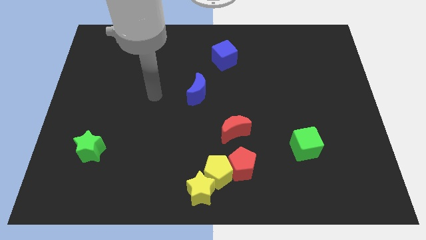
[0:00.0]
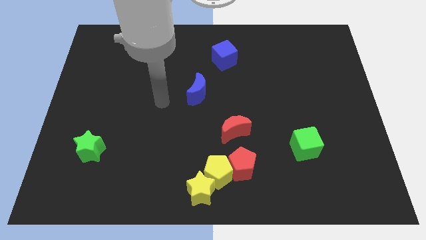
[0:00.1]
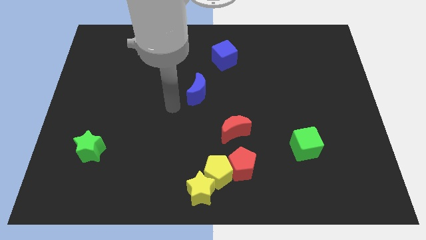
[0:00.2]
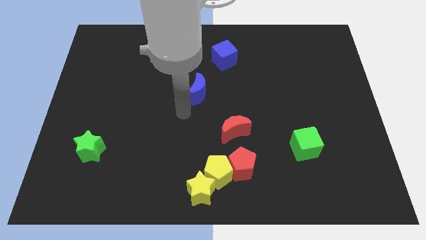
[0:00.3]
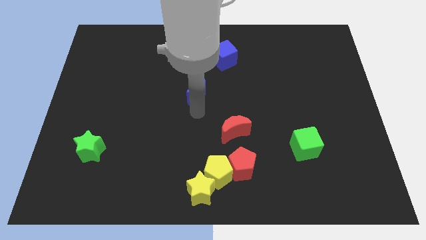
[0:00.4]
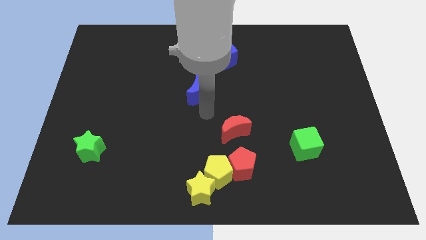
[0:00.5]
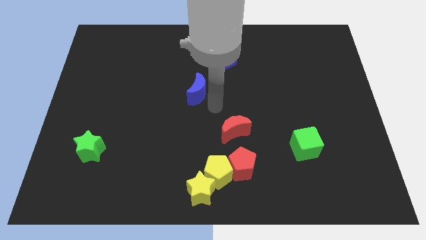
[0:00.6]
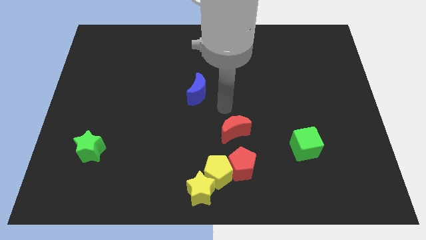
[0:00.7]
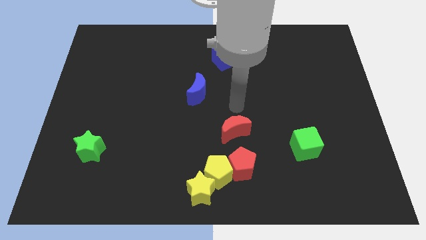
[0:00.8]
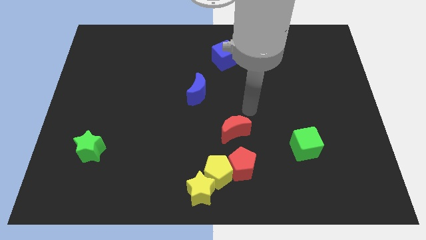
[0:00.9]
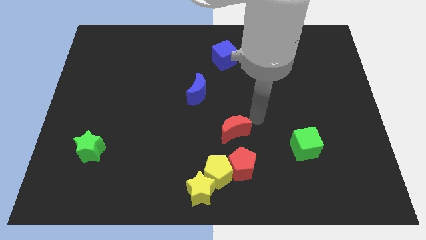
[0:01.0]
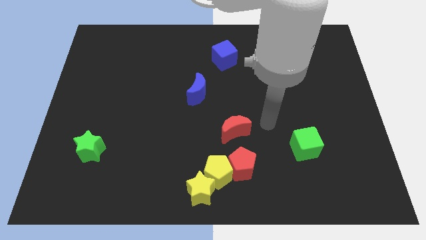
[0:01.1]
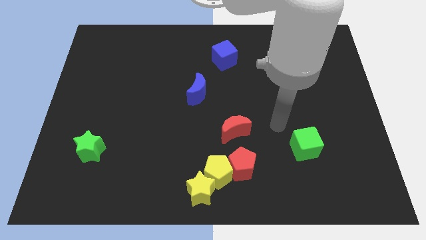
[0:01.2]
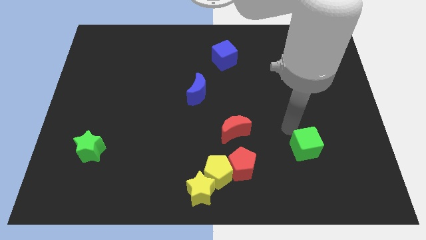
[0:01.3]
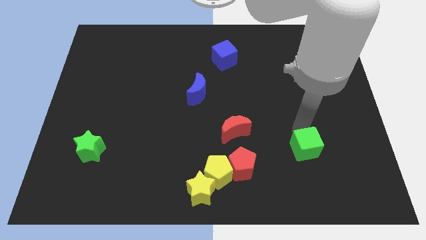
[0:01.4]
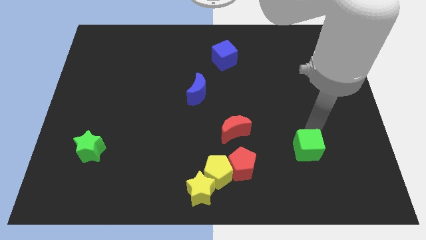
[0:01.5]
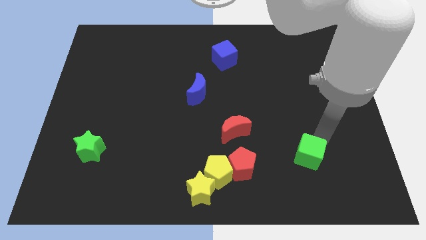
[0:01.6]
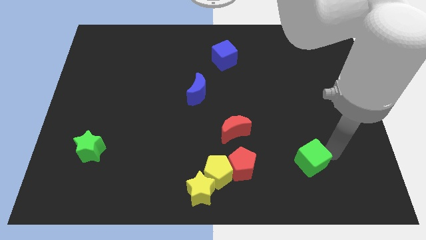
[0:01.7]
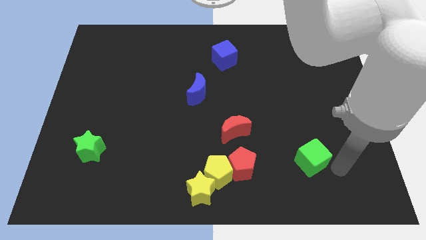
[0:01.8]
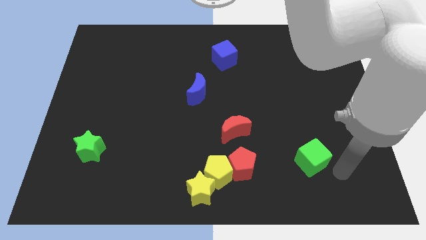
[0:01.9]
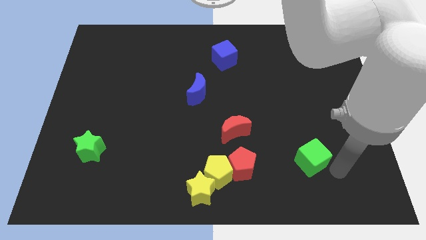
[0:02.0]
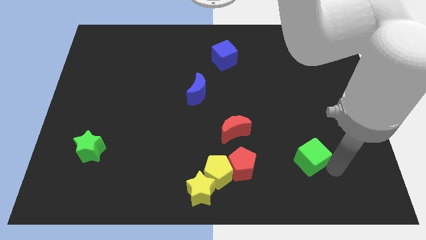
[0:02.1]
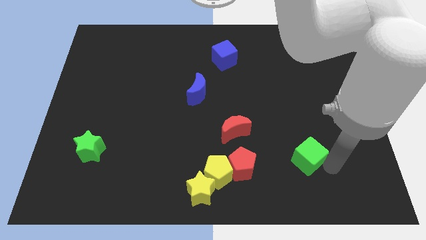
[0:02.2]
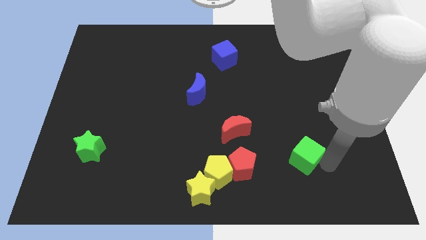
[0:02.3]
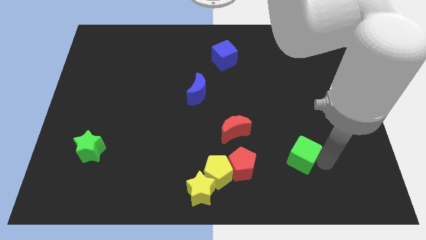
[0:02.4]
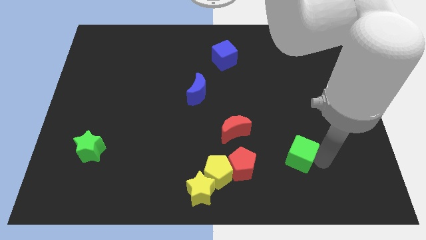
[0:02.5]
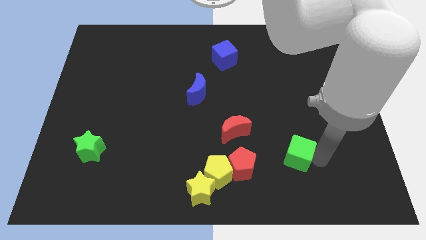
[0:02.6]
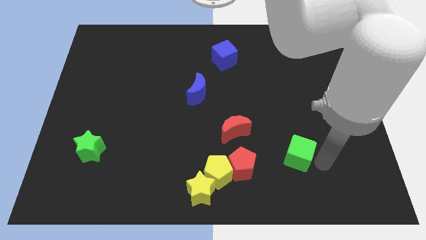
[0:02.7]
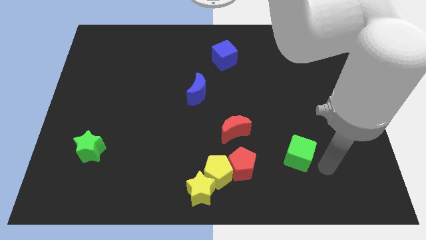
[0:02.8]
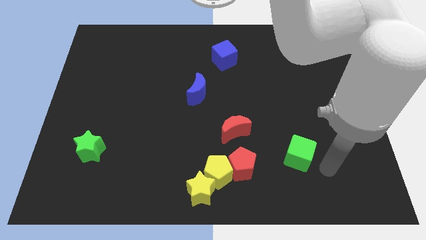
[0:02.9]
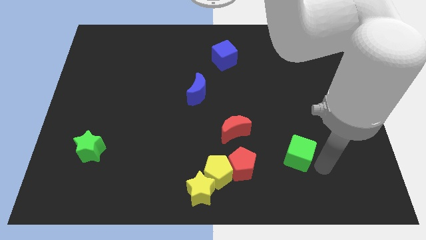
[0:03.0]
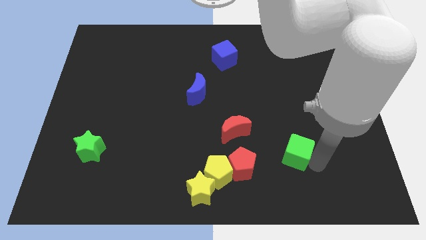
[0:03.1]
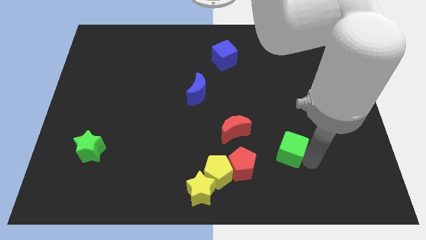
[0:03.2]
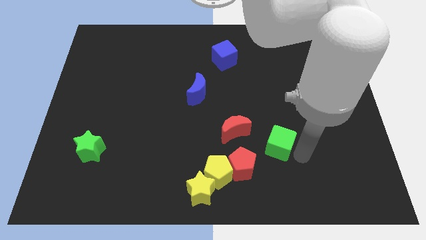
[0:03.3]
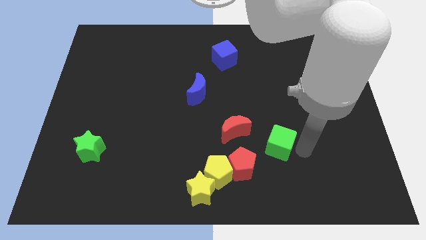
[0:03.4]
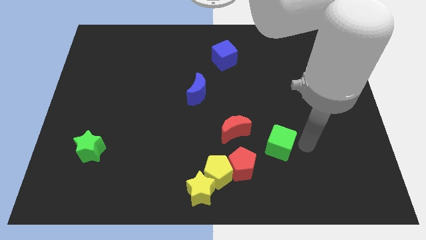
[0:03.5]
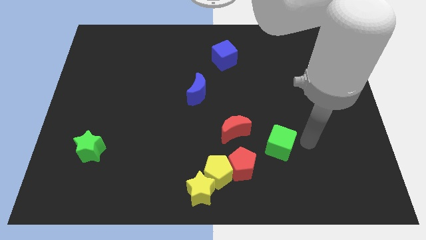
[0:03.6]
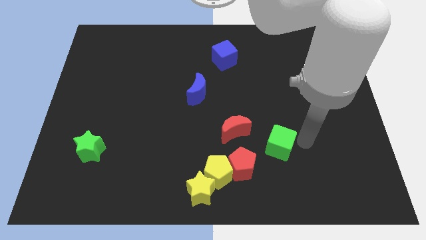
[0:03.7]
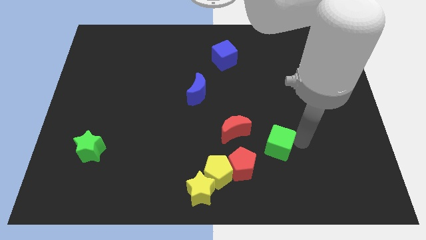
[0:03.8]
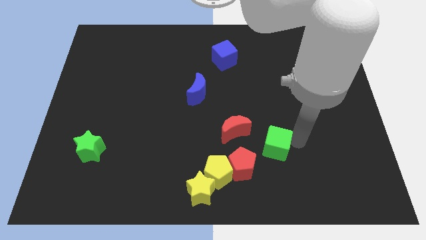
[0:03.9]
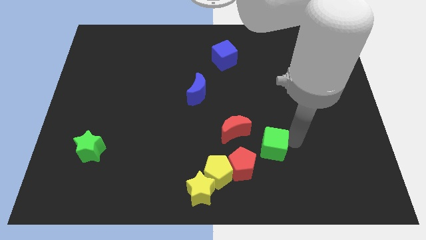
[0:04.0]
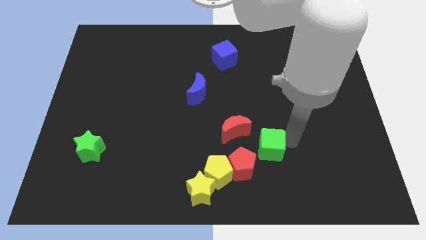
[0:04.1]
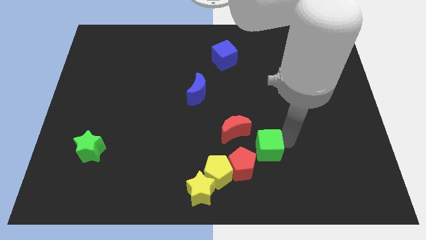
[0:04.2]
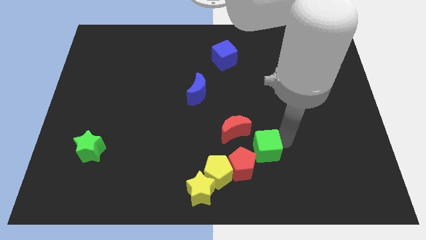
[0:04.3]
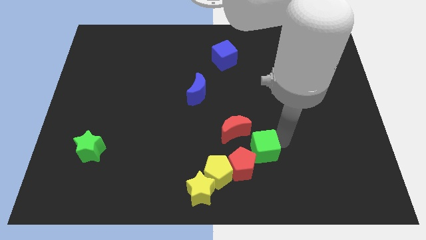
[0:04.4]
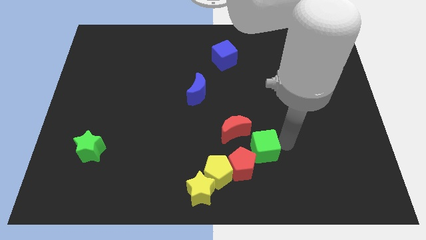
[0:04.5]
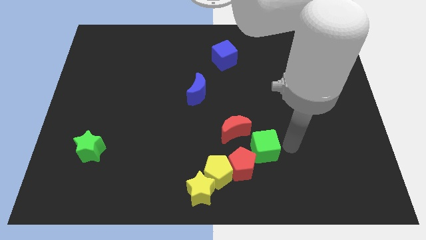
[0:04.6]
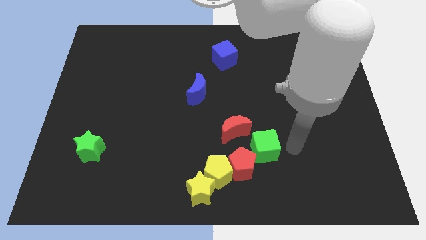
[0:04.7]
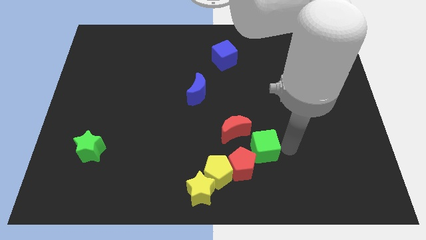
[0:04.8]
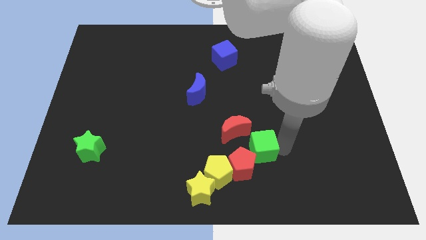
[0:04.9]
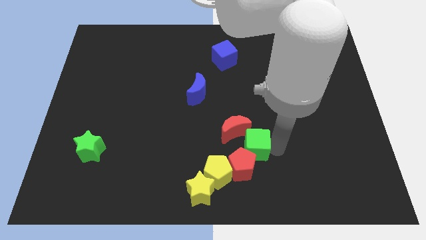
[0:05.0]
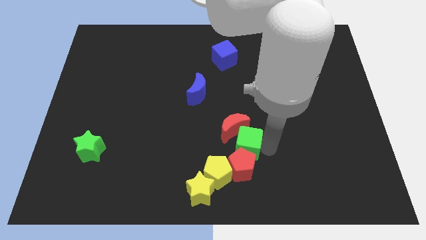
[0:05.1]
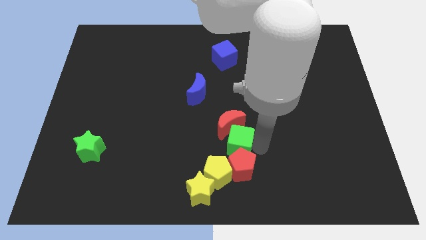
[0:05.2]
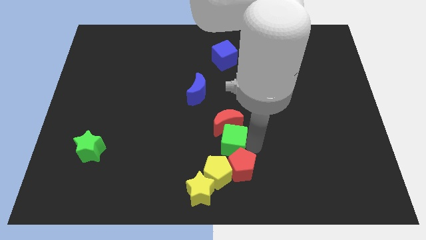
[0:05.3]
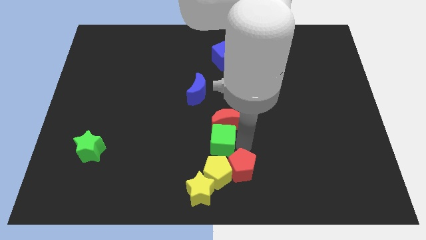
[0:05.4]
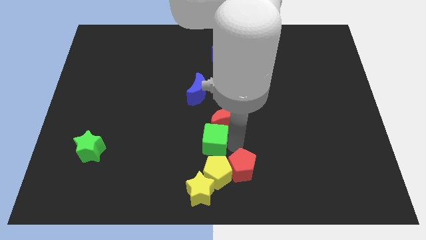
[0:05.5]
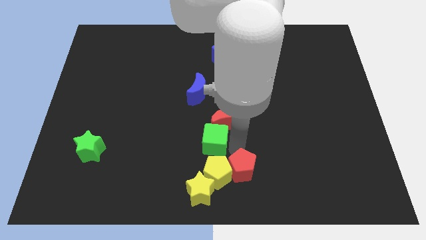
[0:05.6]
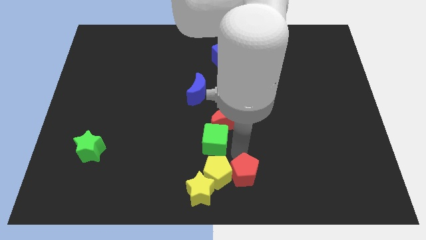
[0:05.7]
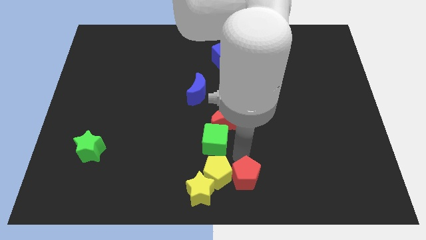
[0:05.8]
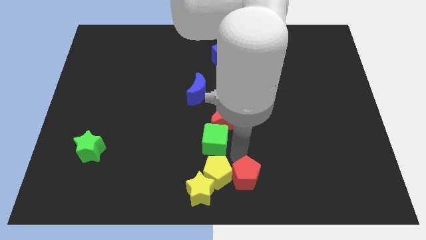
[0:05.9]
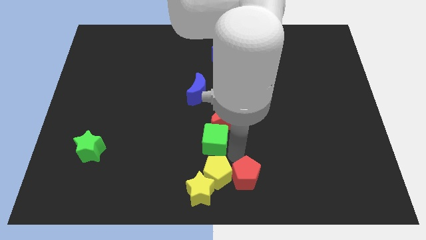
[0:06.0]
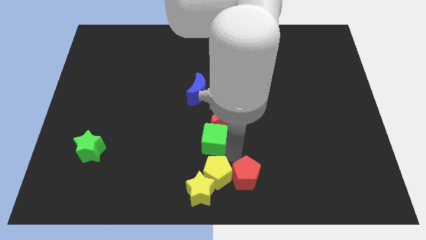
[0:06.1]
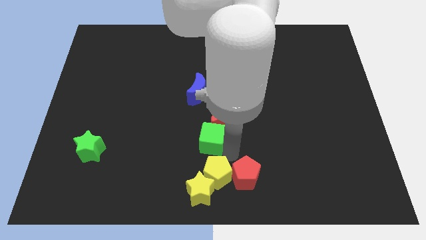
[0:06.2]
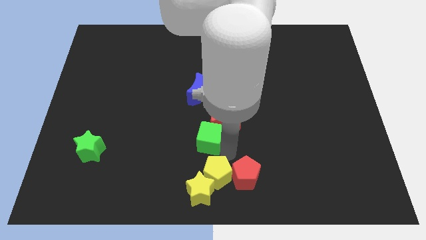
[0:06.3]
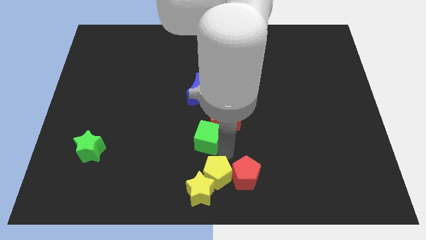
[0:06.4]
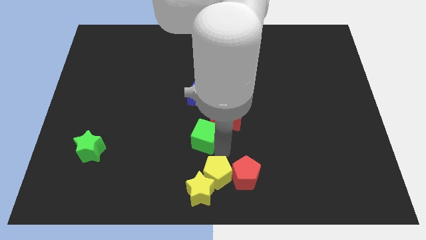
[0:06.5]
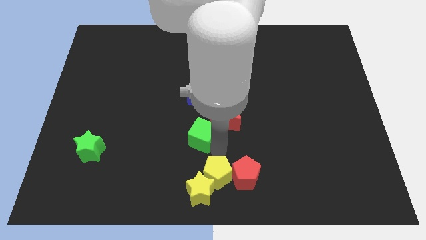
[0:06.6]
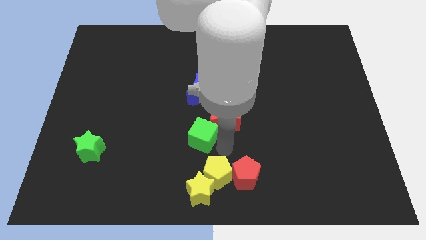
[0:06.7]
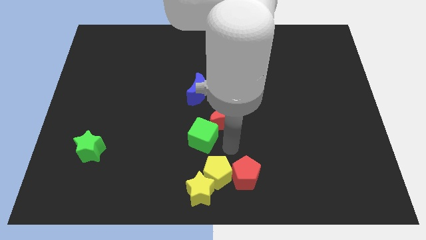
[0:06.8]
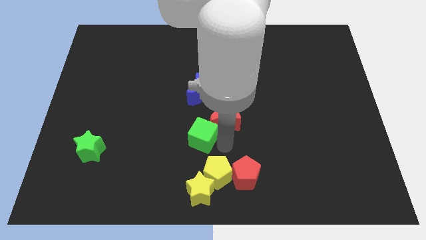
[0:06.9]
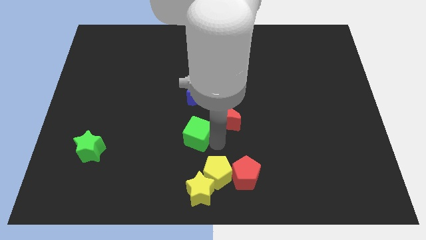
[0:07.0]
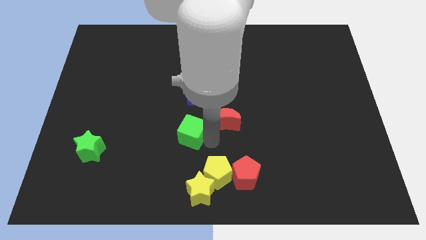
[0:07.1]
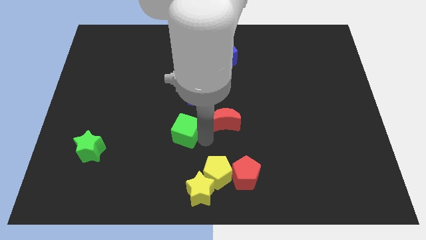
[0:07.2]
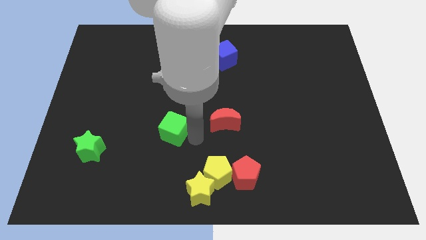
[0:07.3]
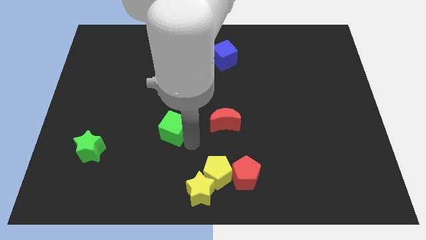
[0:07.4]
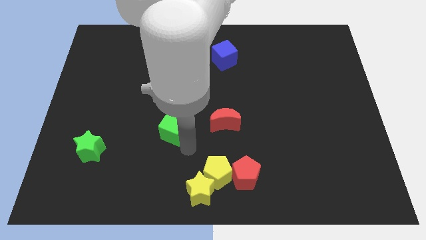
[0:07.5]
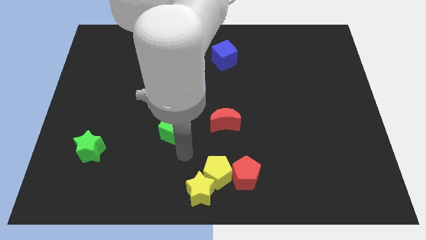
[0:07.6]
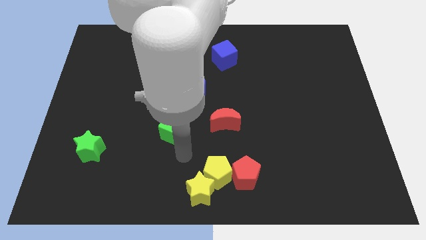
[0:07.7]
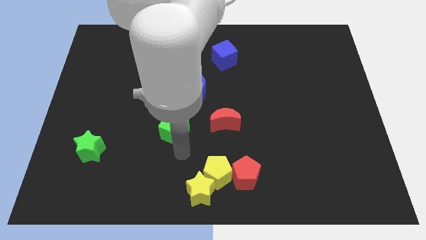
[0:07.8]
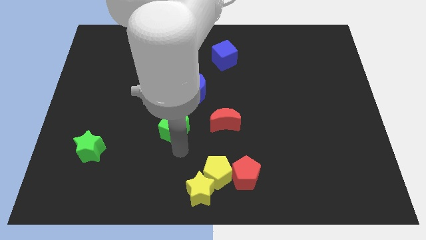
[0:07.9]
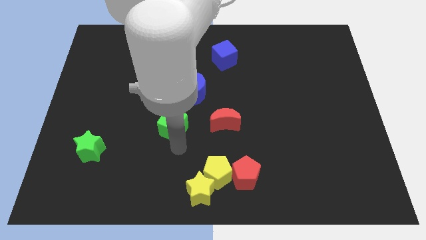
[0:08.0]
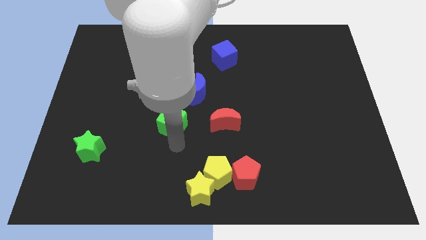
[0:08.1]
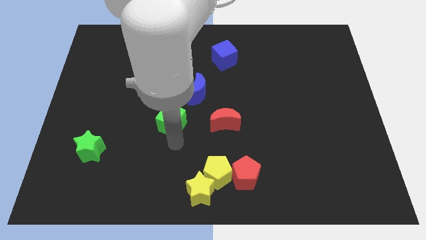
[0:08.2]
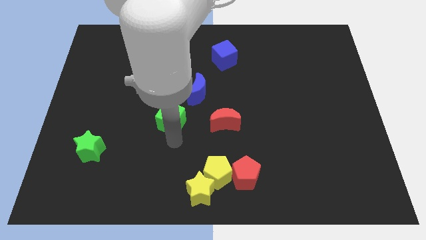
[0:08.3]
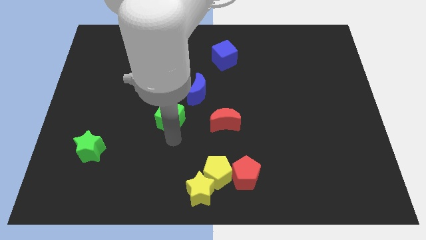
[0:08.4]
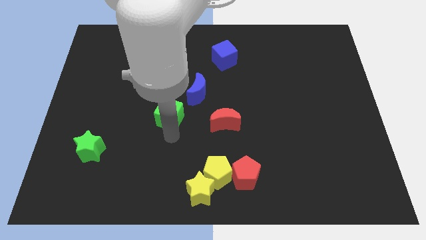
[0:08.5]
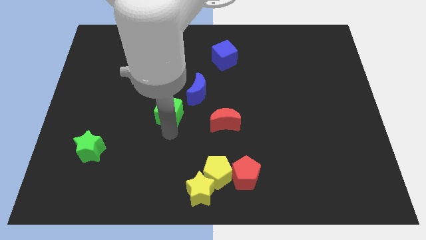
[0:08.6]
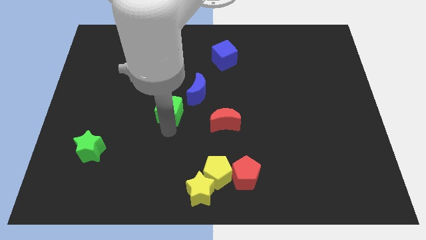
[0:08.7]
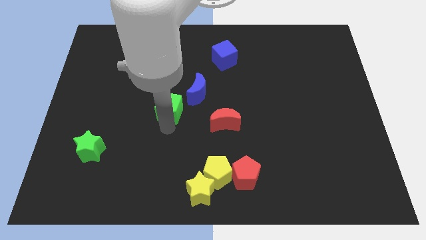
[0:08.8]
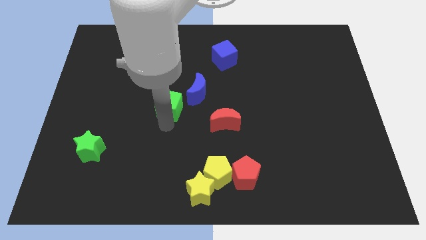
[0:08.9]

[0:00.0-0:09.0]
slide the green cube to the left of the blue moon
